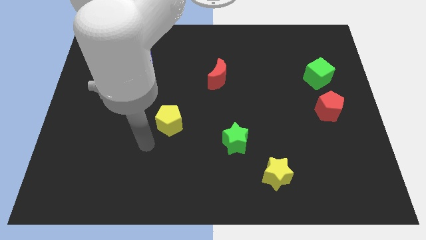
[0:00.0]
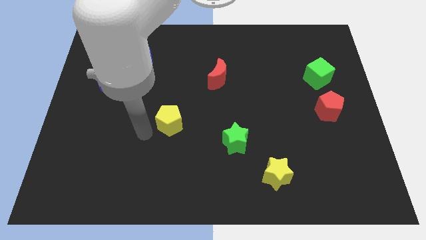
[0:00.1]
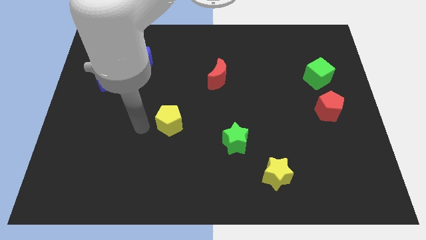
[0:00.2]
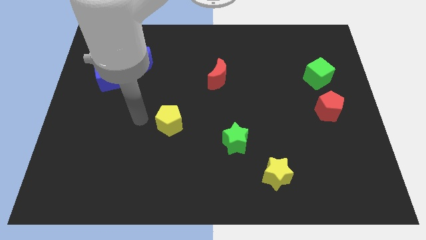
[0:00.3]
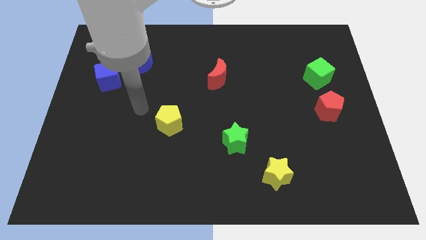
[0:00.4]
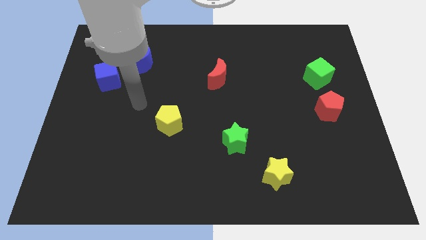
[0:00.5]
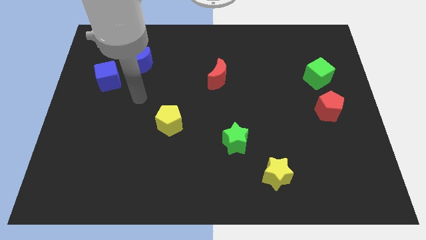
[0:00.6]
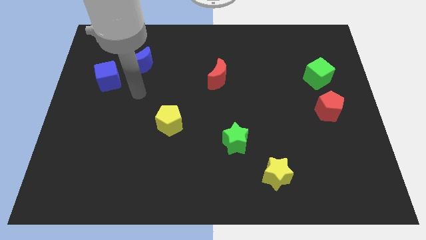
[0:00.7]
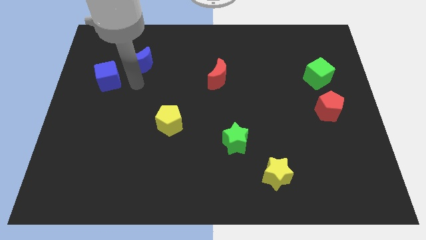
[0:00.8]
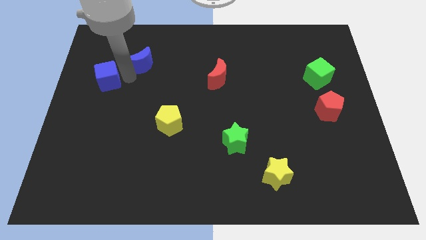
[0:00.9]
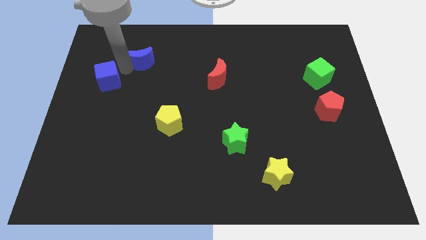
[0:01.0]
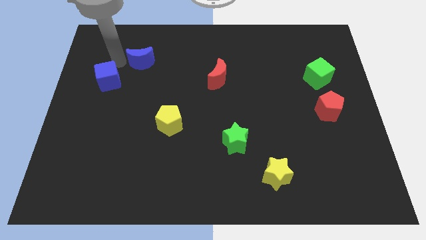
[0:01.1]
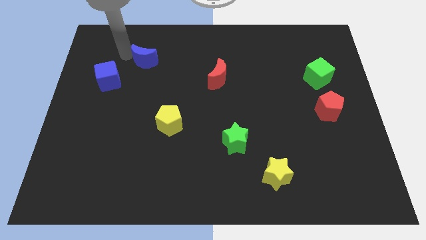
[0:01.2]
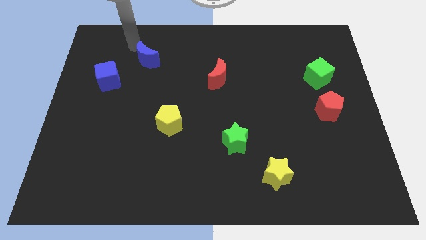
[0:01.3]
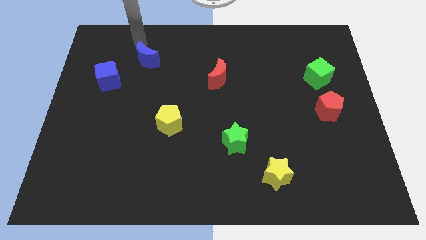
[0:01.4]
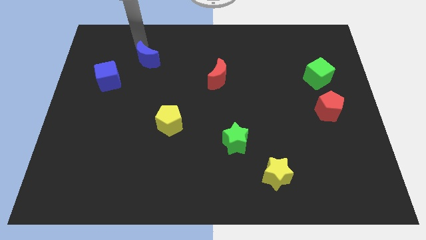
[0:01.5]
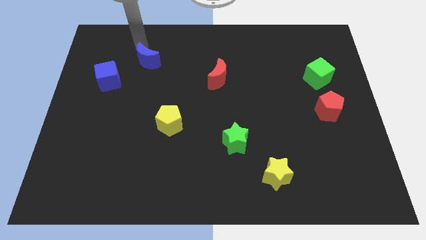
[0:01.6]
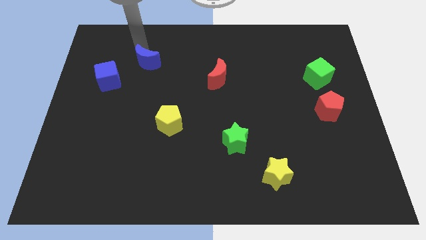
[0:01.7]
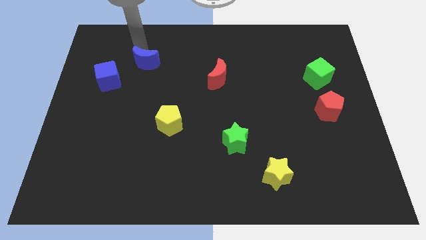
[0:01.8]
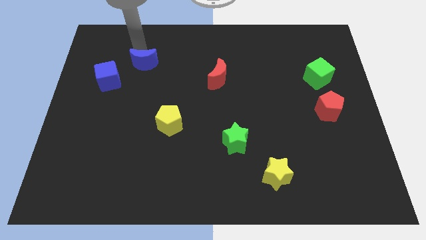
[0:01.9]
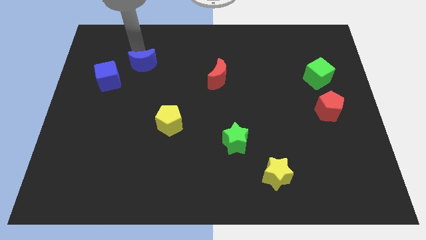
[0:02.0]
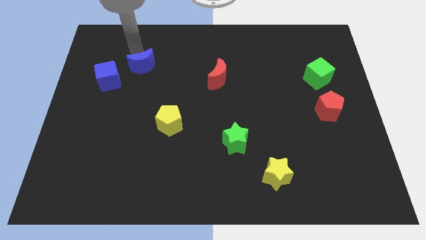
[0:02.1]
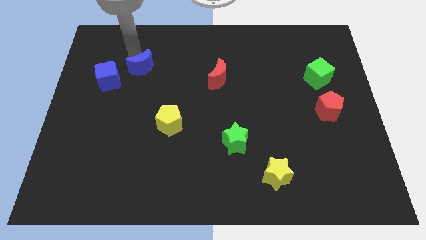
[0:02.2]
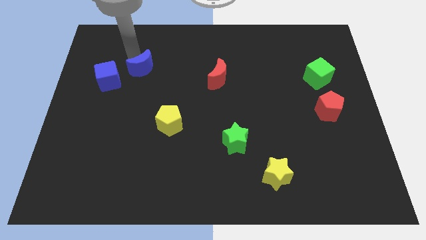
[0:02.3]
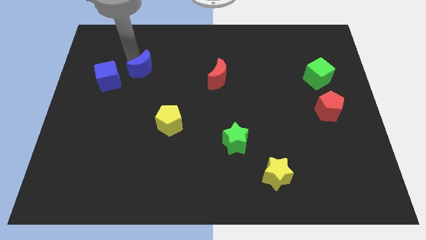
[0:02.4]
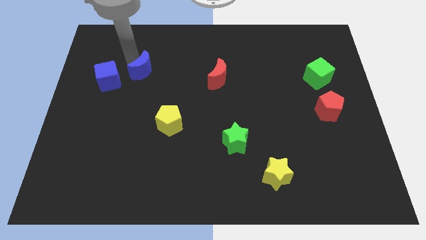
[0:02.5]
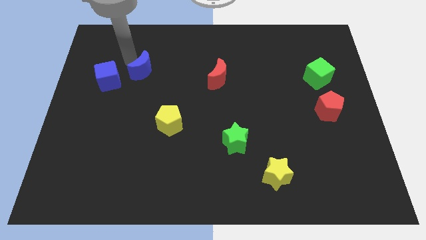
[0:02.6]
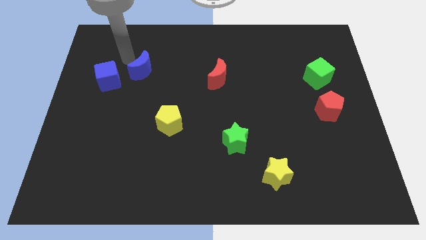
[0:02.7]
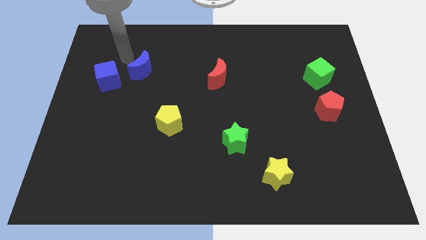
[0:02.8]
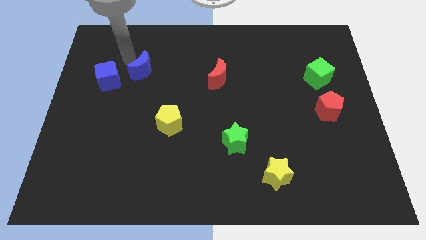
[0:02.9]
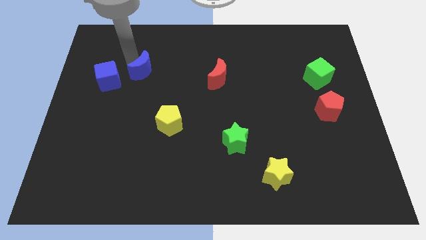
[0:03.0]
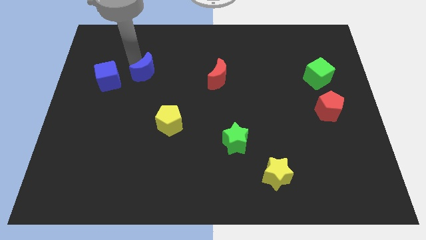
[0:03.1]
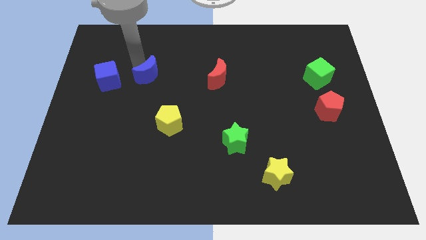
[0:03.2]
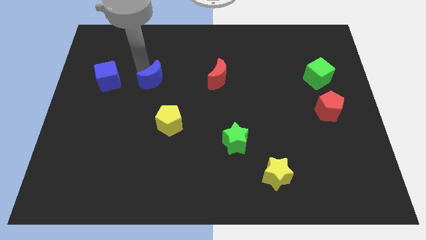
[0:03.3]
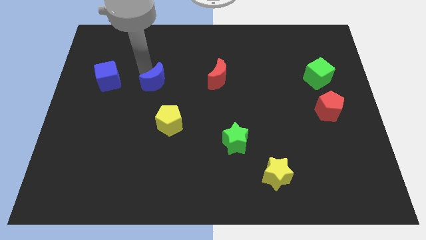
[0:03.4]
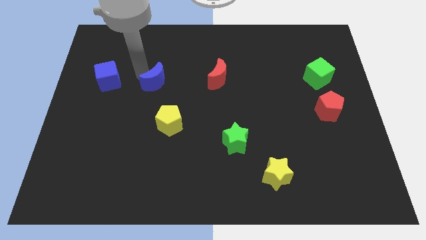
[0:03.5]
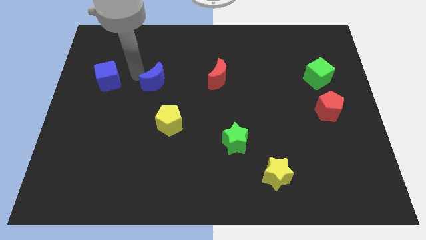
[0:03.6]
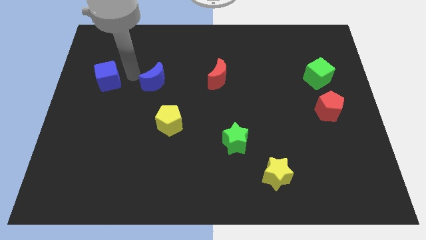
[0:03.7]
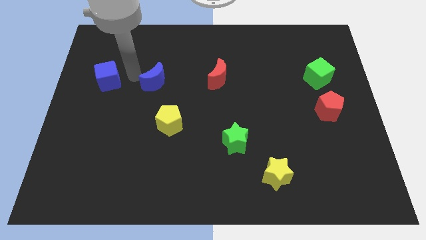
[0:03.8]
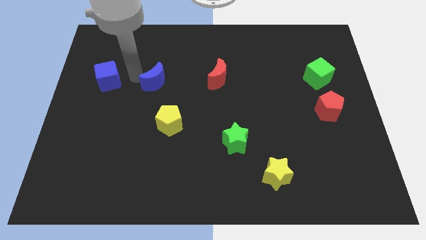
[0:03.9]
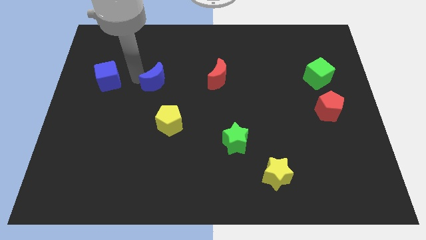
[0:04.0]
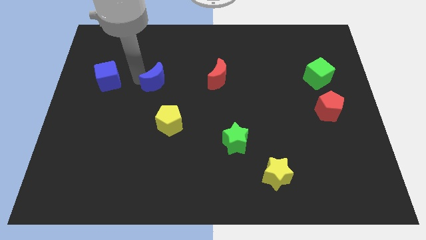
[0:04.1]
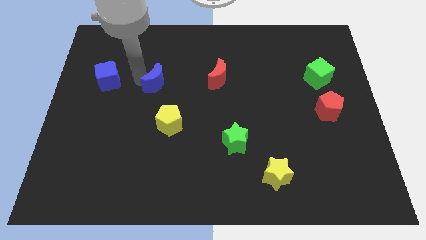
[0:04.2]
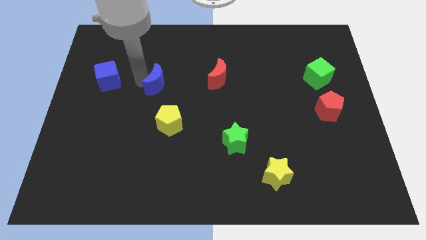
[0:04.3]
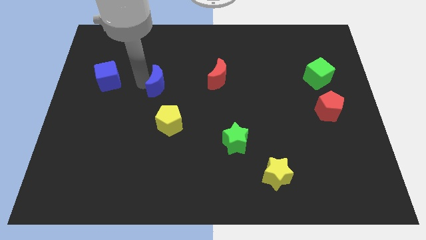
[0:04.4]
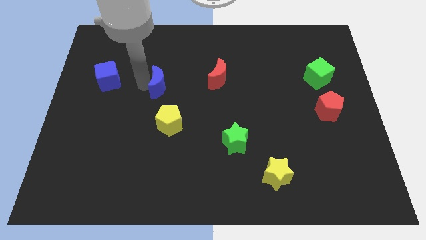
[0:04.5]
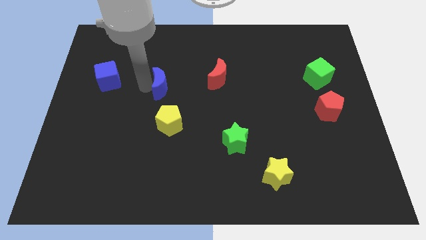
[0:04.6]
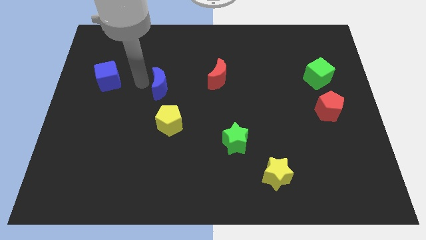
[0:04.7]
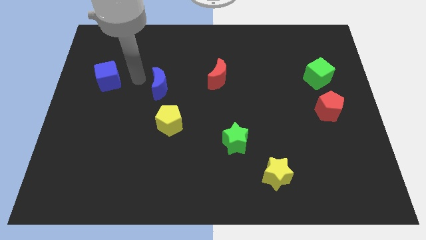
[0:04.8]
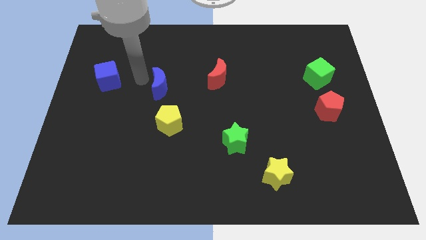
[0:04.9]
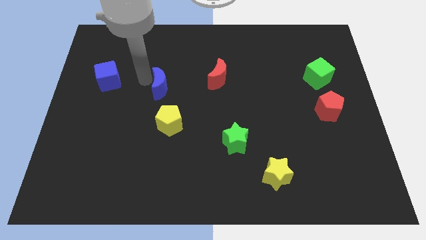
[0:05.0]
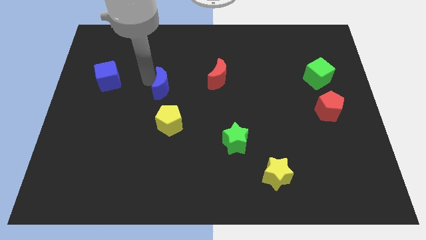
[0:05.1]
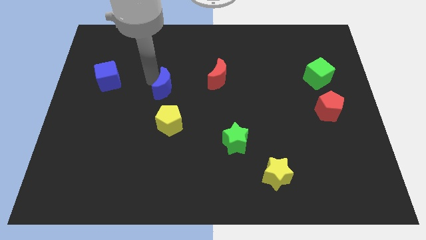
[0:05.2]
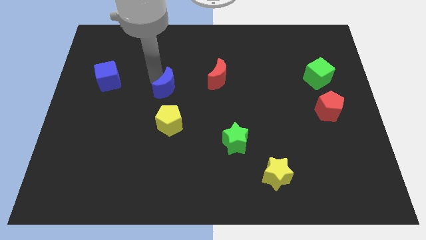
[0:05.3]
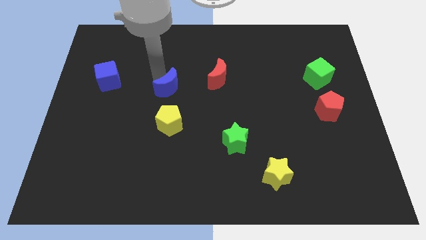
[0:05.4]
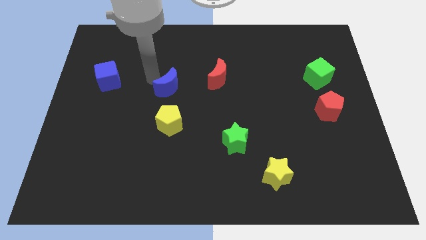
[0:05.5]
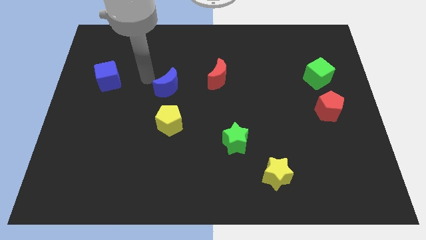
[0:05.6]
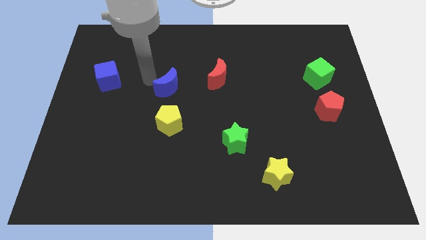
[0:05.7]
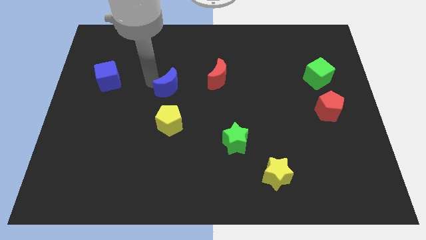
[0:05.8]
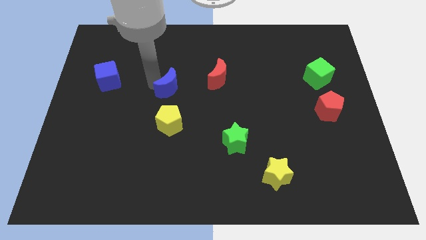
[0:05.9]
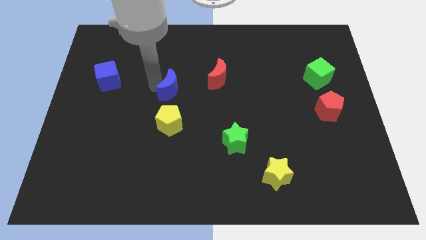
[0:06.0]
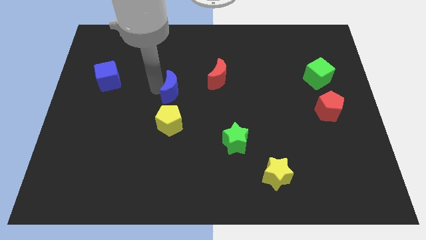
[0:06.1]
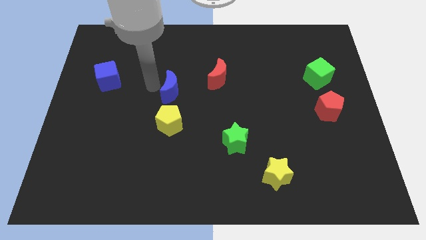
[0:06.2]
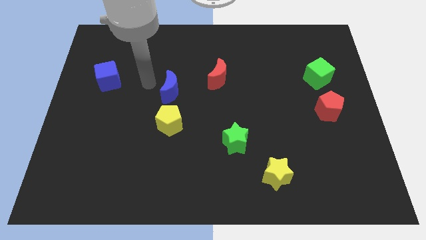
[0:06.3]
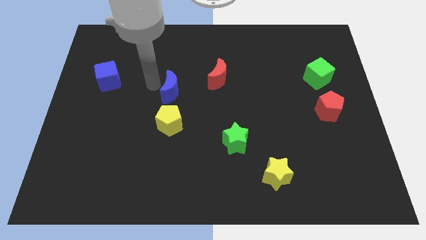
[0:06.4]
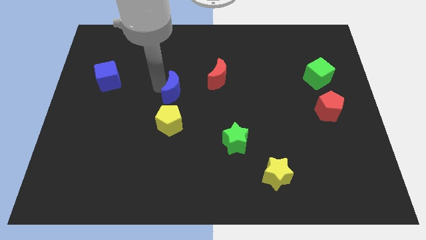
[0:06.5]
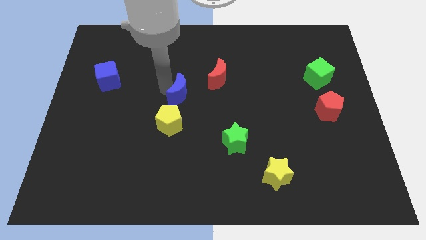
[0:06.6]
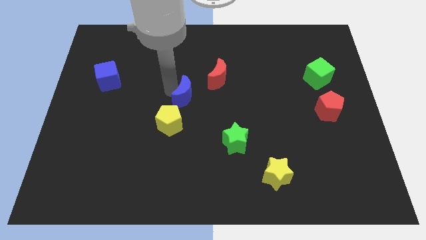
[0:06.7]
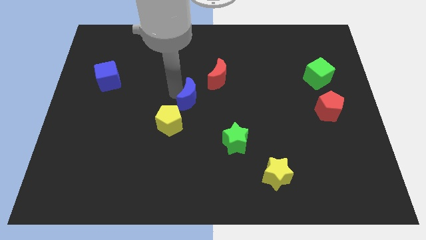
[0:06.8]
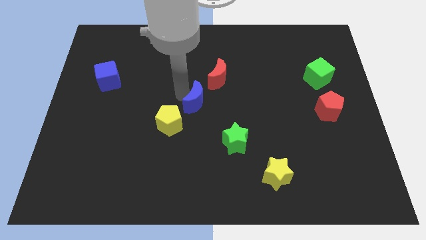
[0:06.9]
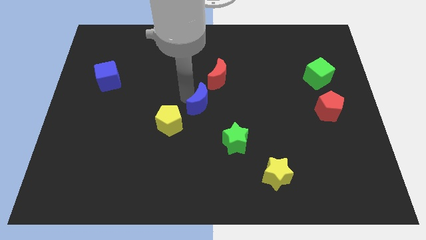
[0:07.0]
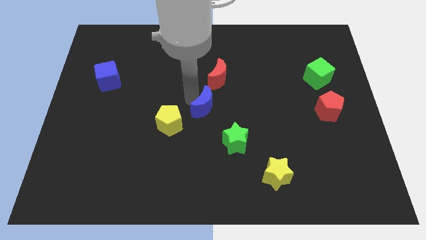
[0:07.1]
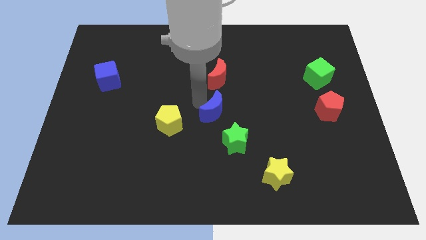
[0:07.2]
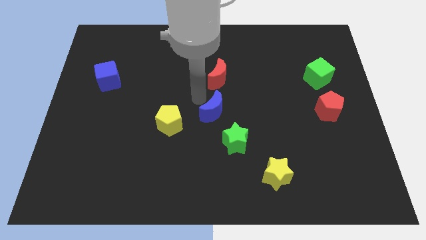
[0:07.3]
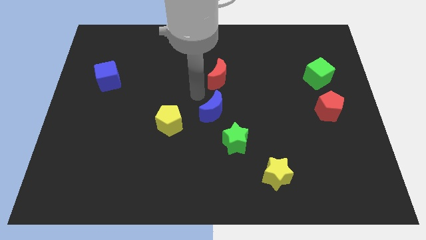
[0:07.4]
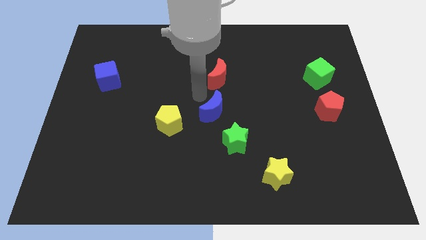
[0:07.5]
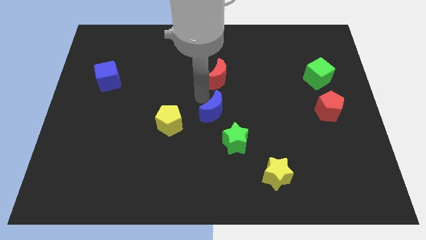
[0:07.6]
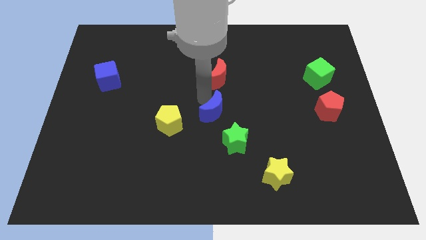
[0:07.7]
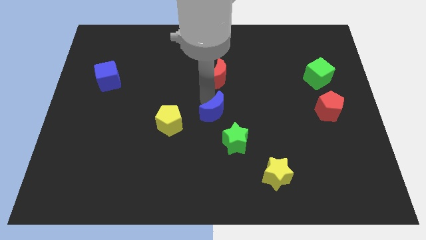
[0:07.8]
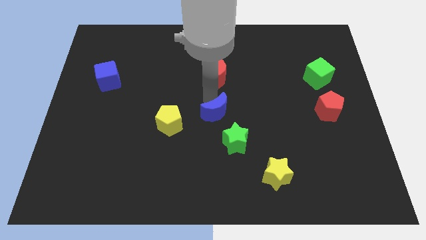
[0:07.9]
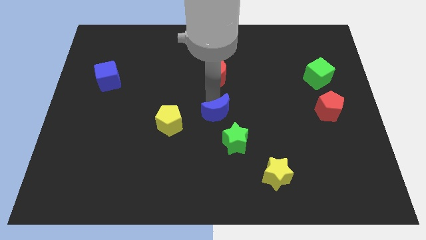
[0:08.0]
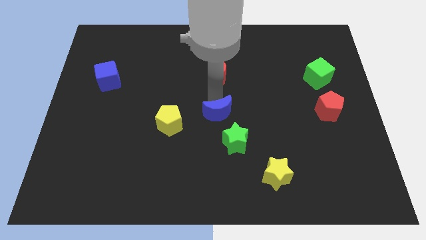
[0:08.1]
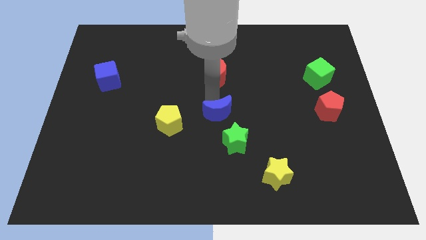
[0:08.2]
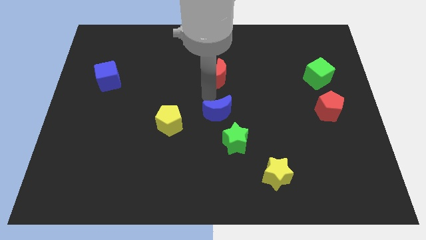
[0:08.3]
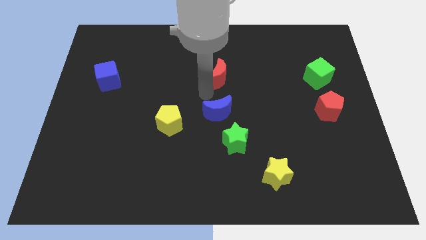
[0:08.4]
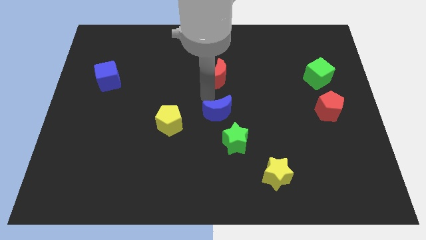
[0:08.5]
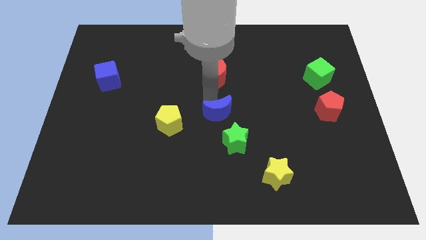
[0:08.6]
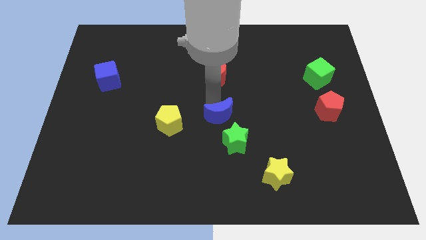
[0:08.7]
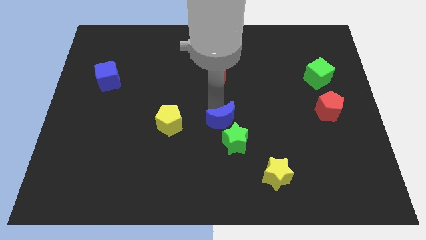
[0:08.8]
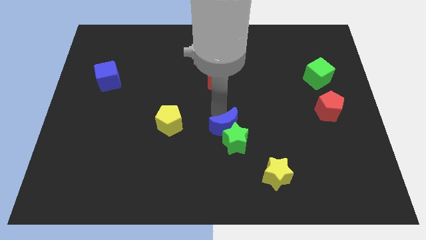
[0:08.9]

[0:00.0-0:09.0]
push the blue moon next to the green star
